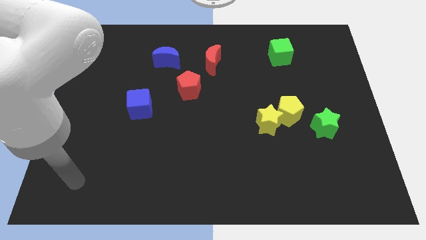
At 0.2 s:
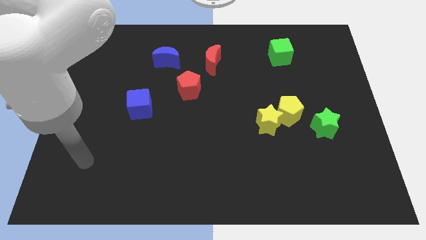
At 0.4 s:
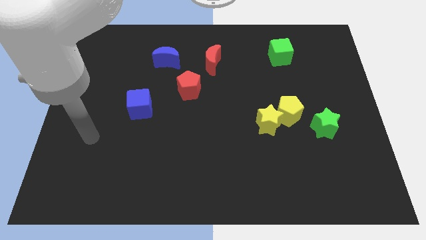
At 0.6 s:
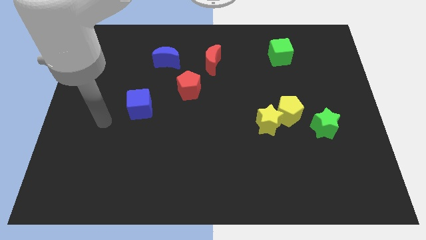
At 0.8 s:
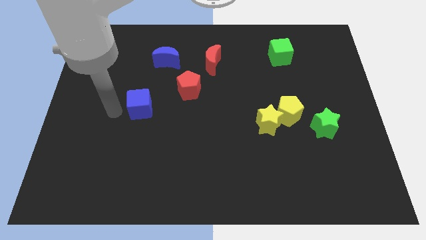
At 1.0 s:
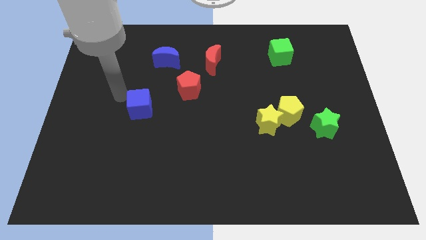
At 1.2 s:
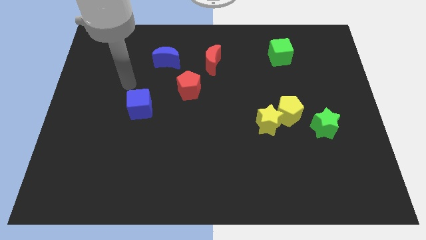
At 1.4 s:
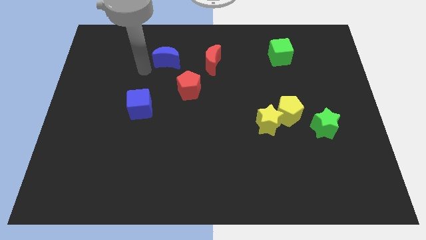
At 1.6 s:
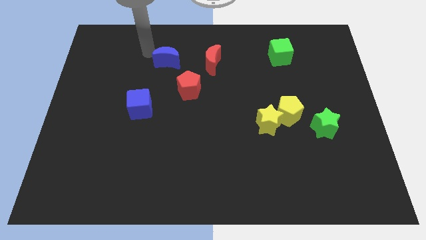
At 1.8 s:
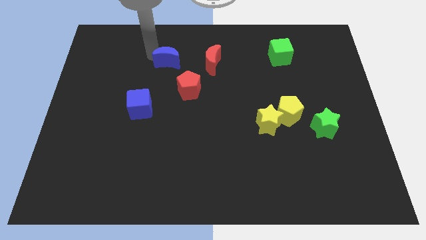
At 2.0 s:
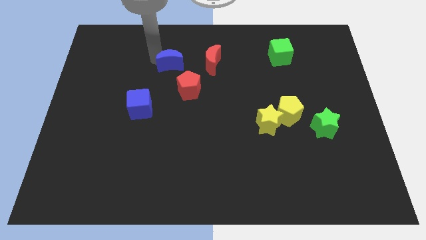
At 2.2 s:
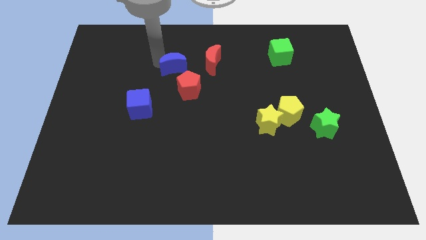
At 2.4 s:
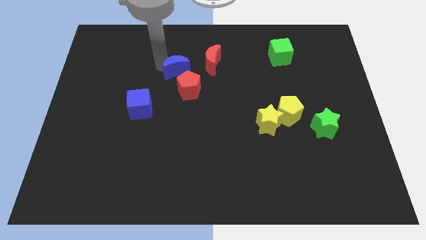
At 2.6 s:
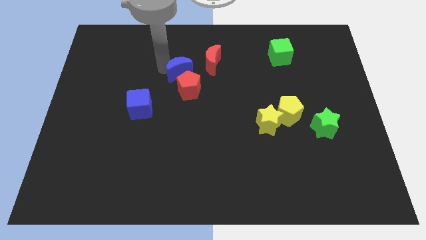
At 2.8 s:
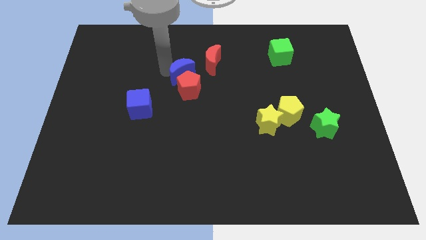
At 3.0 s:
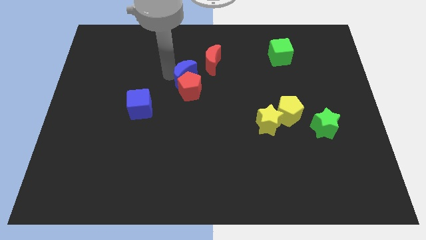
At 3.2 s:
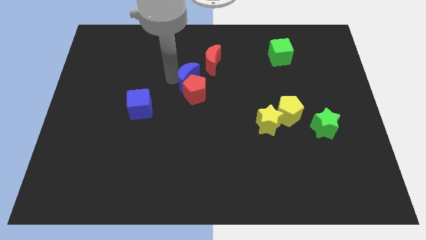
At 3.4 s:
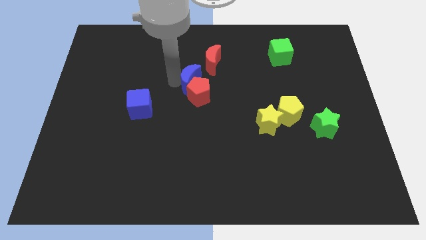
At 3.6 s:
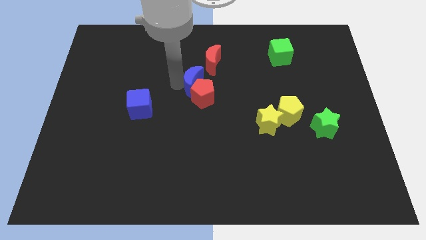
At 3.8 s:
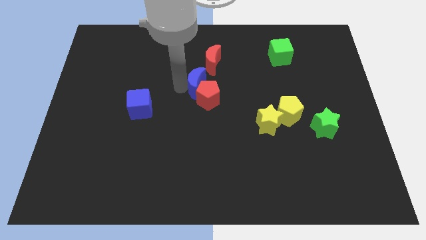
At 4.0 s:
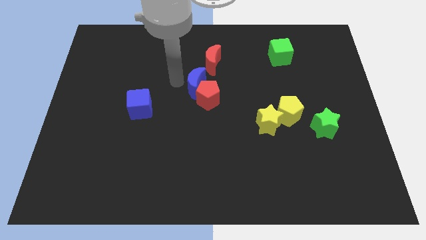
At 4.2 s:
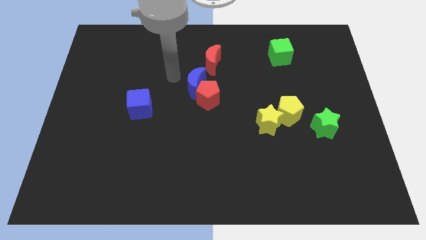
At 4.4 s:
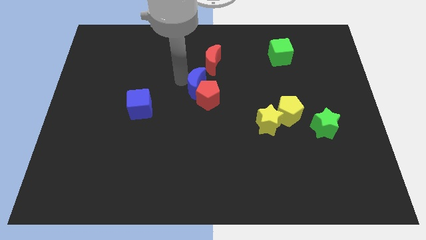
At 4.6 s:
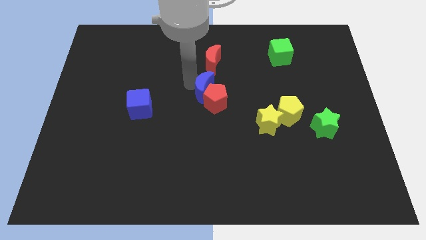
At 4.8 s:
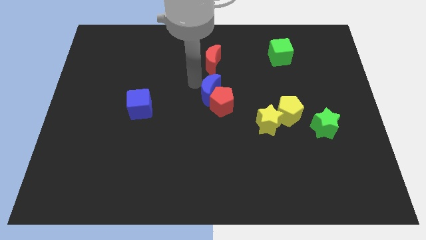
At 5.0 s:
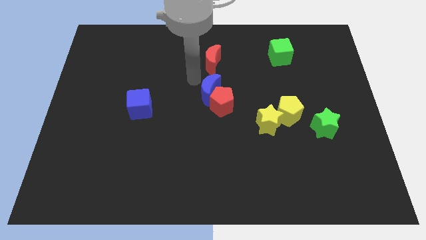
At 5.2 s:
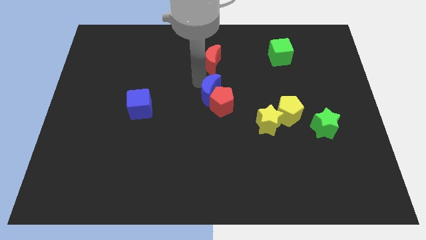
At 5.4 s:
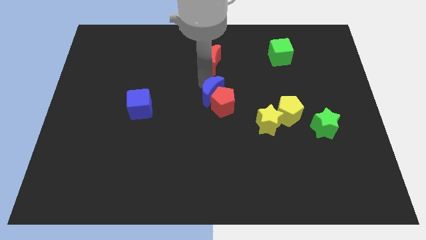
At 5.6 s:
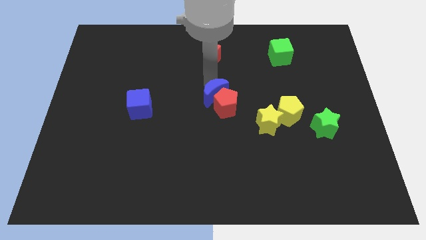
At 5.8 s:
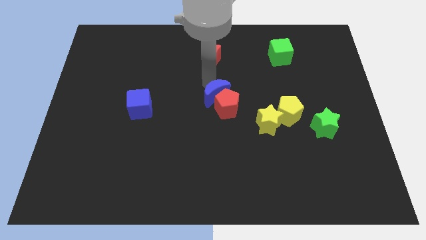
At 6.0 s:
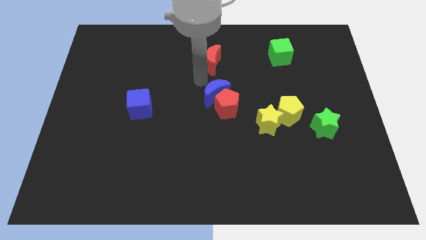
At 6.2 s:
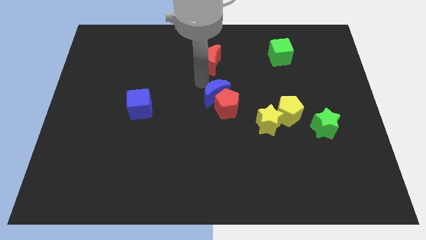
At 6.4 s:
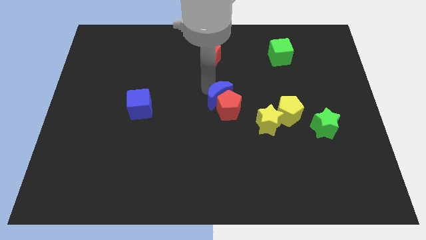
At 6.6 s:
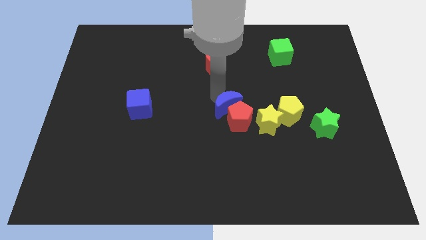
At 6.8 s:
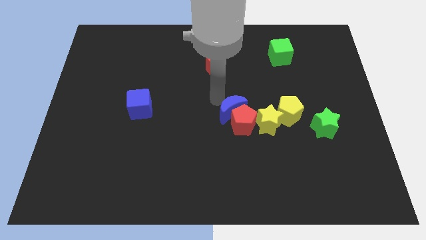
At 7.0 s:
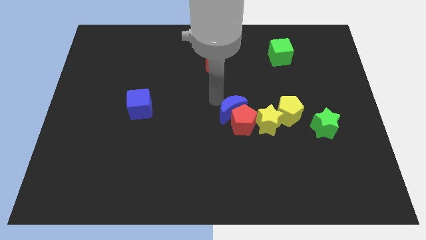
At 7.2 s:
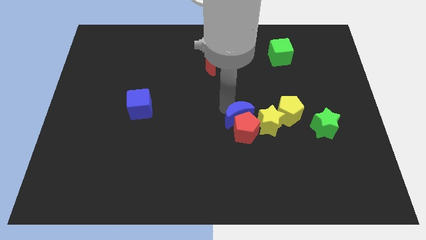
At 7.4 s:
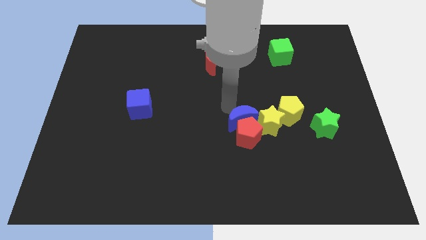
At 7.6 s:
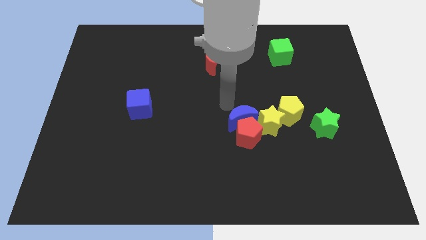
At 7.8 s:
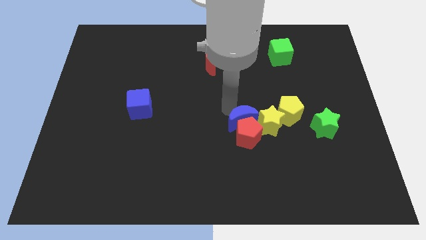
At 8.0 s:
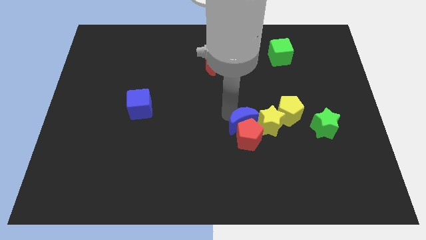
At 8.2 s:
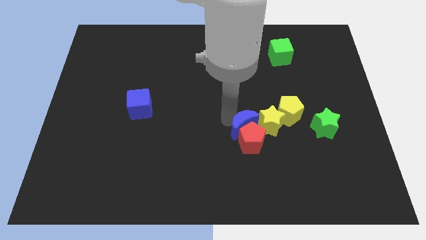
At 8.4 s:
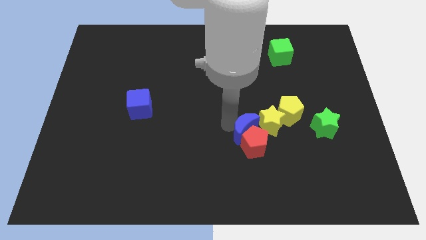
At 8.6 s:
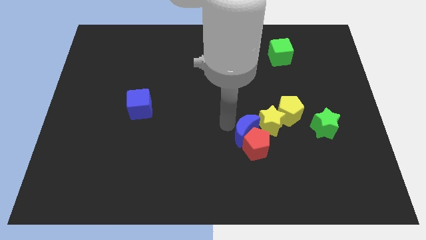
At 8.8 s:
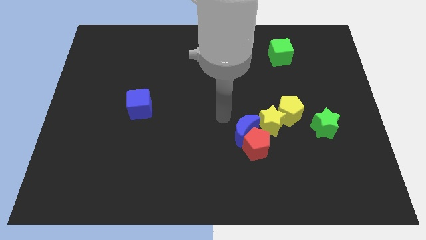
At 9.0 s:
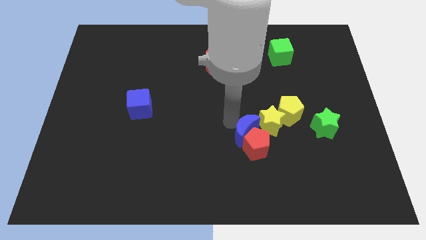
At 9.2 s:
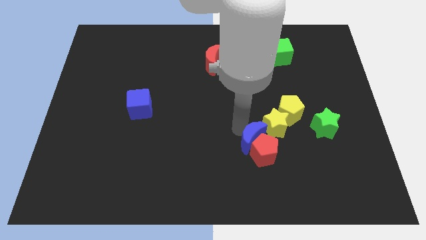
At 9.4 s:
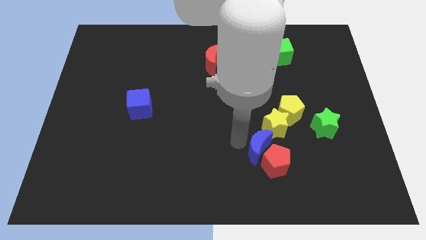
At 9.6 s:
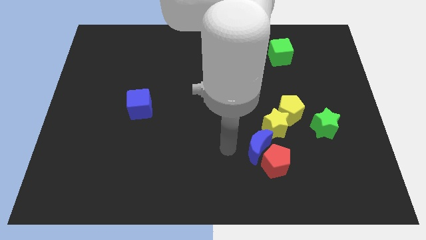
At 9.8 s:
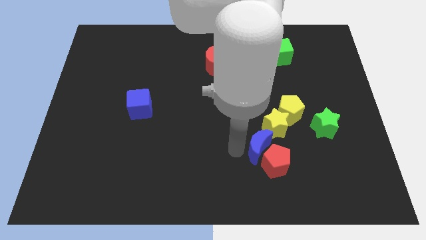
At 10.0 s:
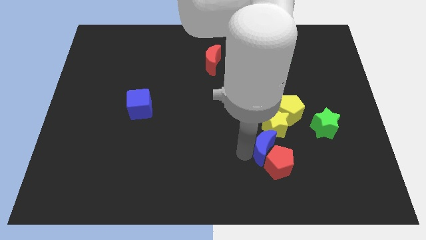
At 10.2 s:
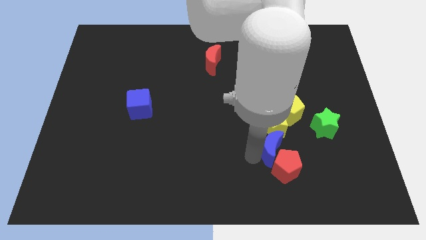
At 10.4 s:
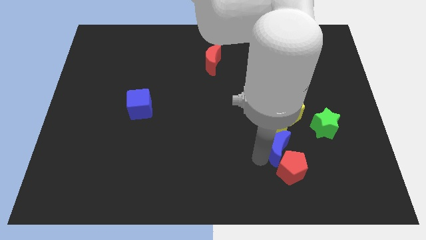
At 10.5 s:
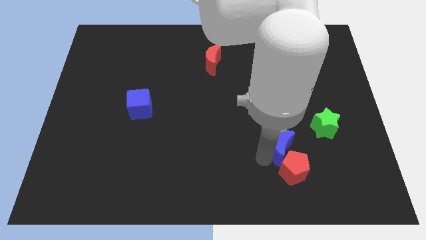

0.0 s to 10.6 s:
slide the blue moon diagonally down and to the left of the green star

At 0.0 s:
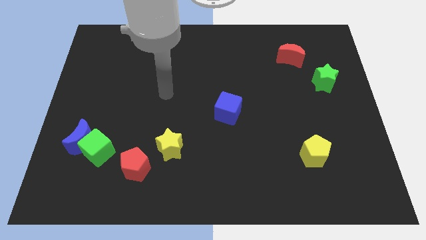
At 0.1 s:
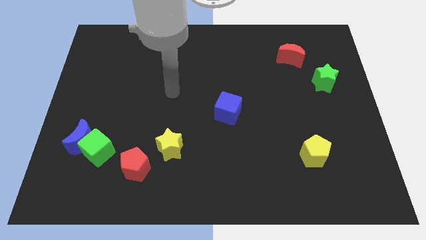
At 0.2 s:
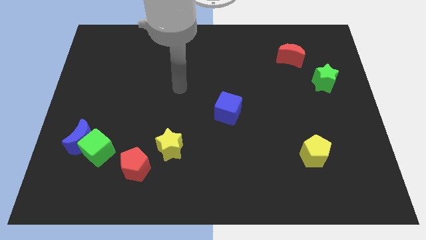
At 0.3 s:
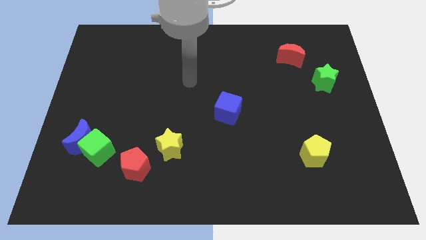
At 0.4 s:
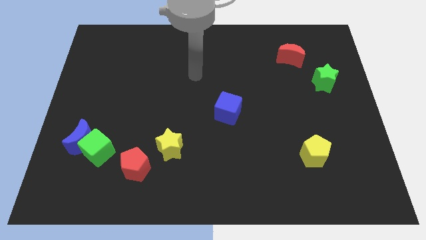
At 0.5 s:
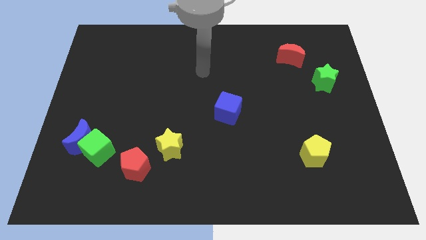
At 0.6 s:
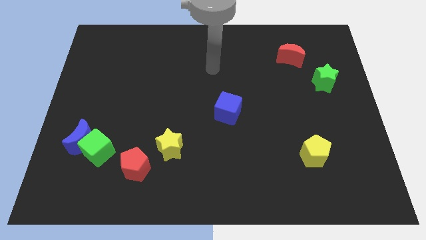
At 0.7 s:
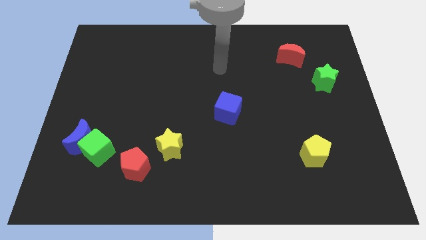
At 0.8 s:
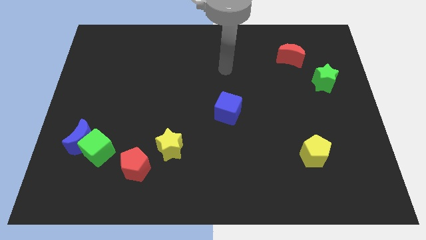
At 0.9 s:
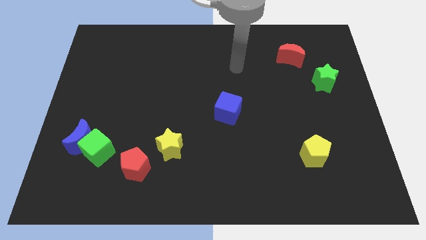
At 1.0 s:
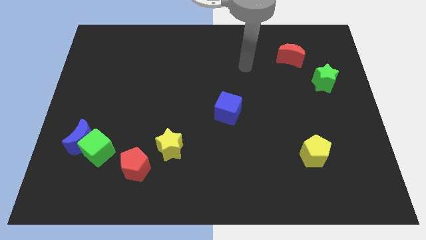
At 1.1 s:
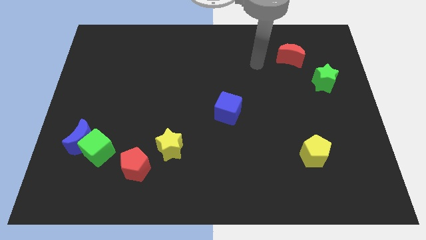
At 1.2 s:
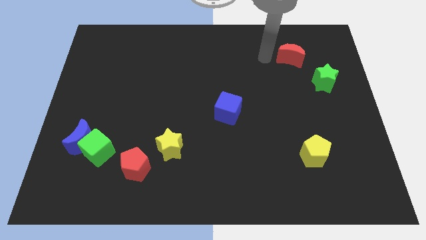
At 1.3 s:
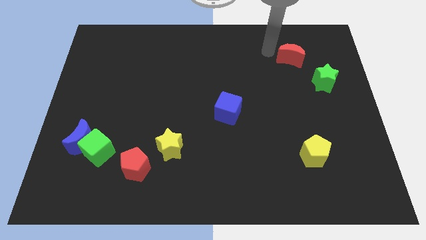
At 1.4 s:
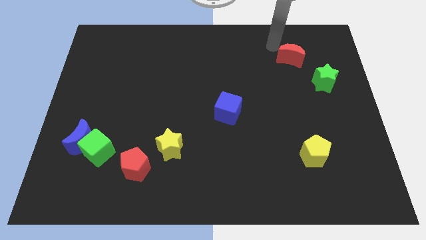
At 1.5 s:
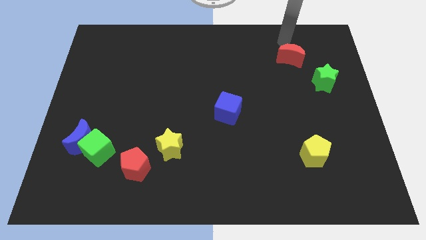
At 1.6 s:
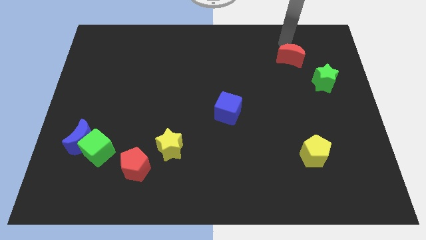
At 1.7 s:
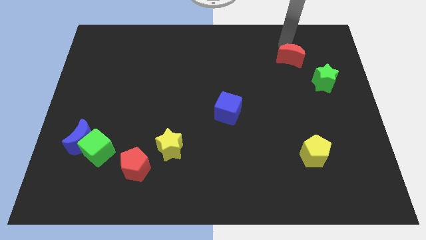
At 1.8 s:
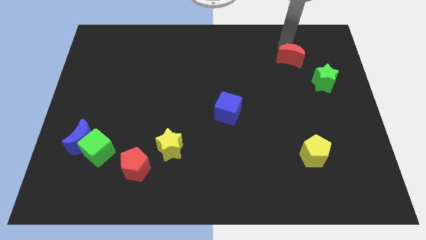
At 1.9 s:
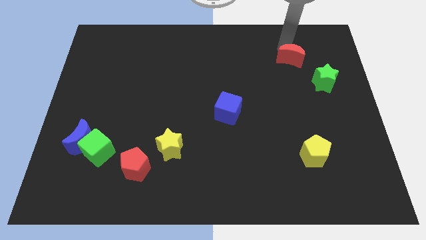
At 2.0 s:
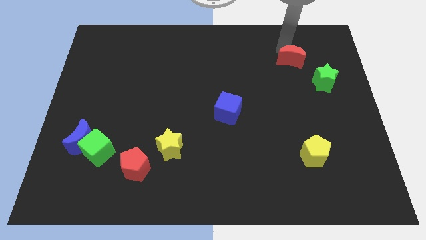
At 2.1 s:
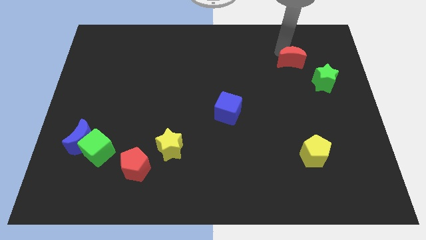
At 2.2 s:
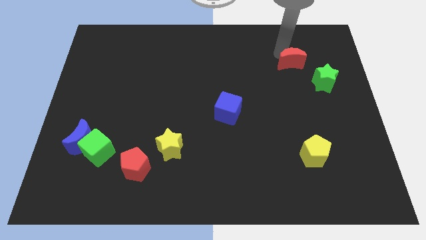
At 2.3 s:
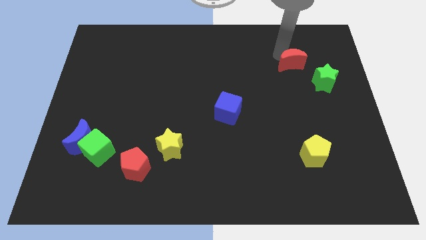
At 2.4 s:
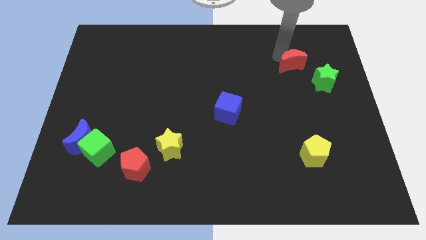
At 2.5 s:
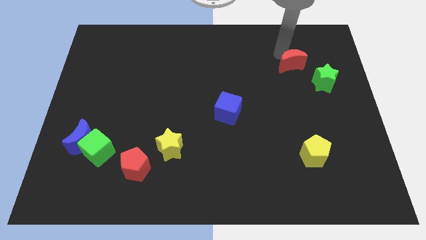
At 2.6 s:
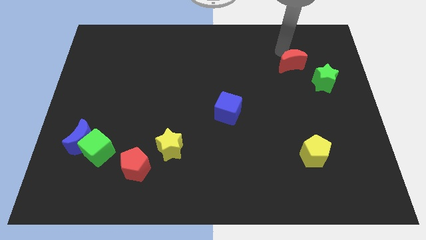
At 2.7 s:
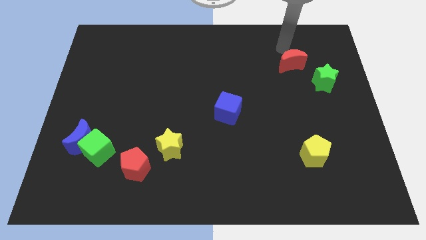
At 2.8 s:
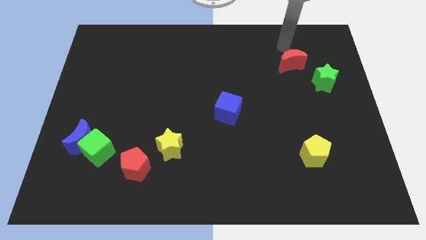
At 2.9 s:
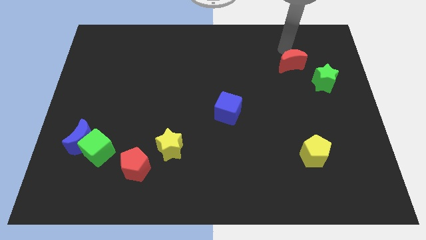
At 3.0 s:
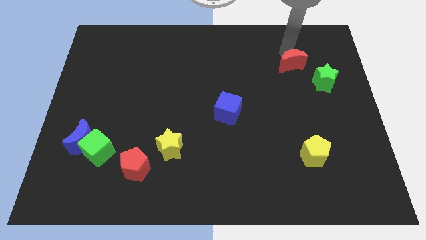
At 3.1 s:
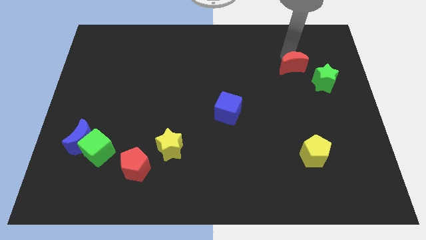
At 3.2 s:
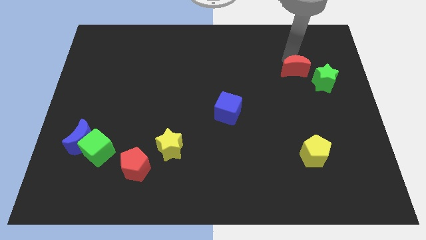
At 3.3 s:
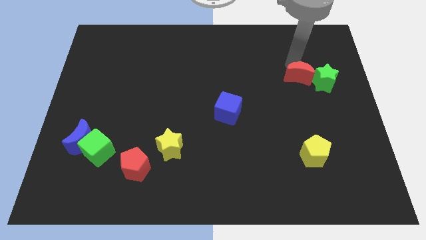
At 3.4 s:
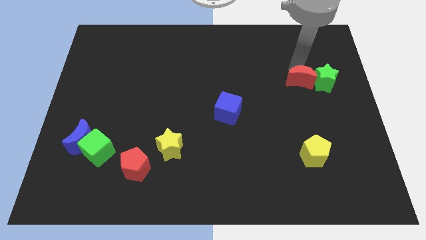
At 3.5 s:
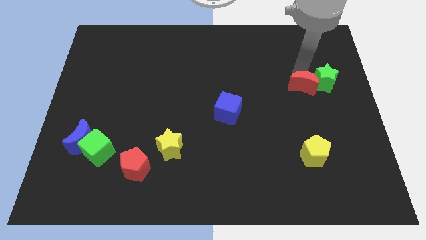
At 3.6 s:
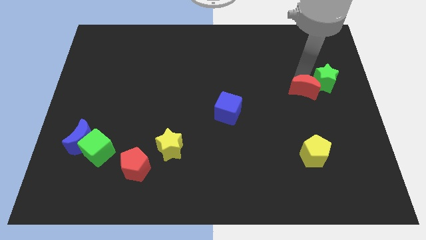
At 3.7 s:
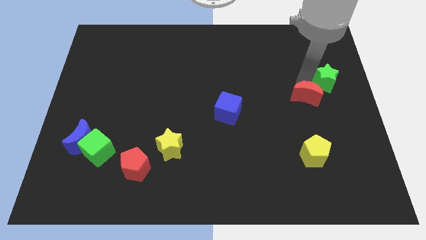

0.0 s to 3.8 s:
move the red moon to the top of the yellow pentagon
